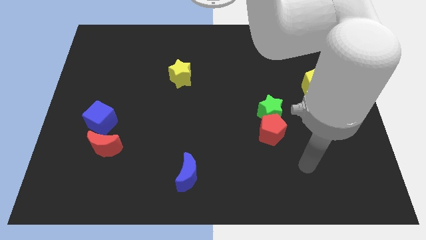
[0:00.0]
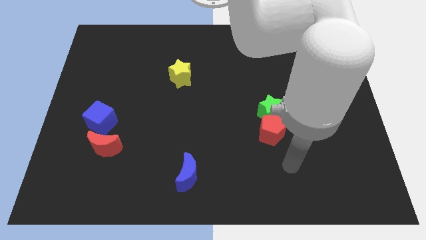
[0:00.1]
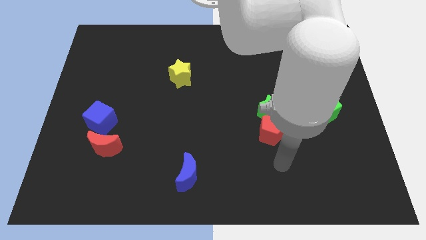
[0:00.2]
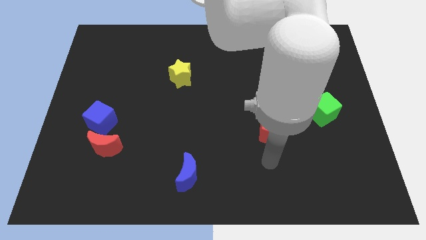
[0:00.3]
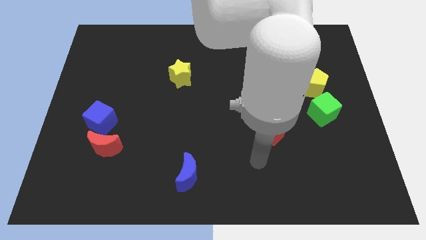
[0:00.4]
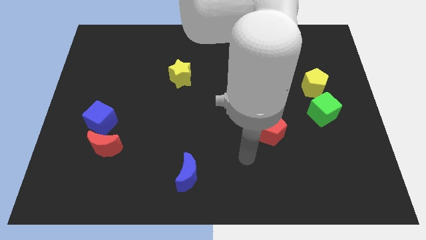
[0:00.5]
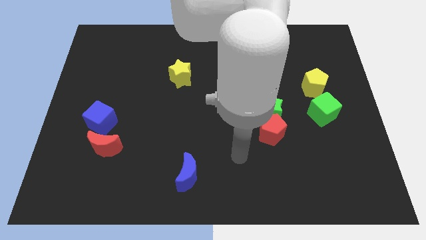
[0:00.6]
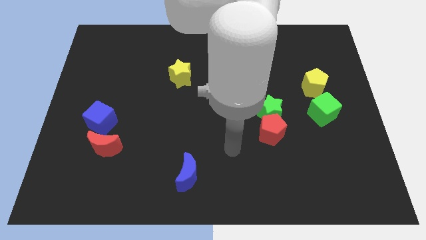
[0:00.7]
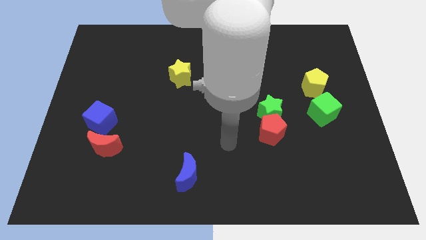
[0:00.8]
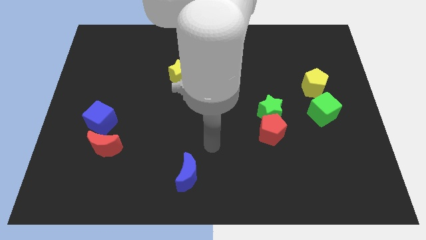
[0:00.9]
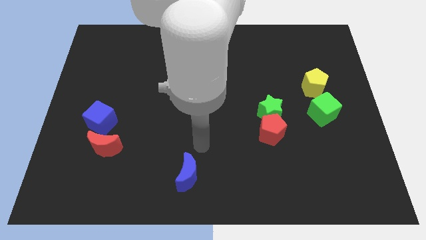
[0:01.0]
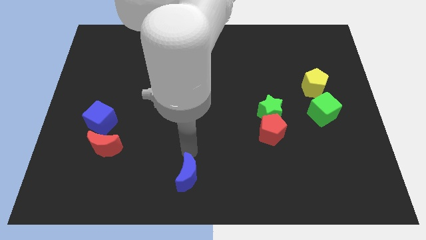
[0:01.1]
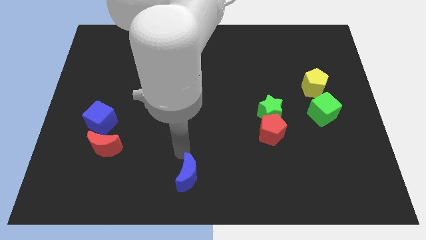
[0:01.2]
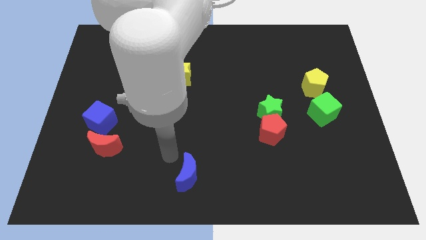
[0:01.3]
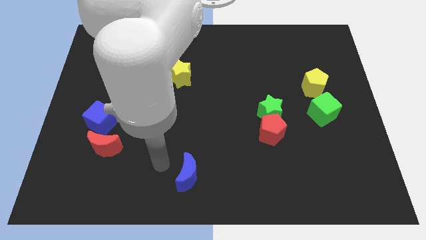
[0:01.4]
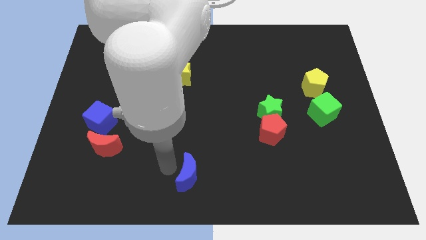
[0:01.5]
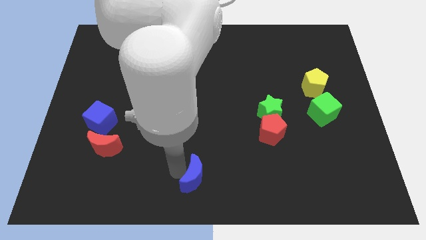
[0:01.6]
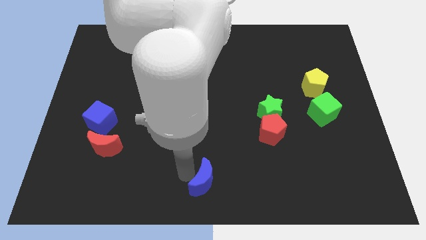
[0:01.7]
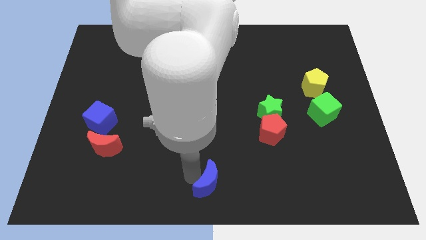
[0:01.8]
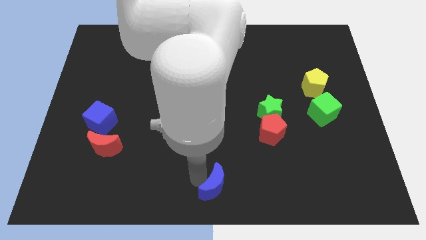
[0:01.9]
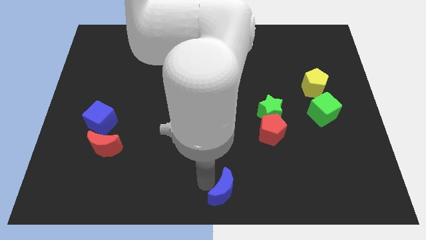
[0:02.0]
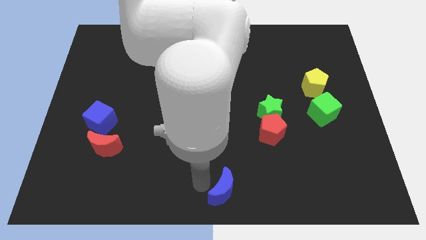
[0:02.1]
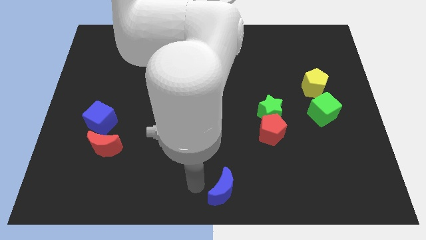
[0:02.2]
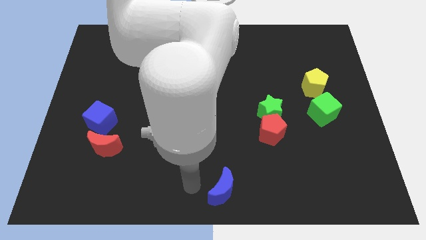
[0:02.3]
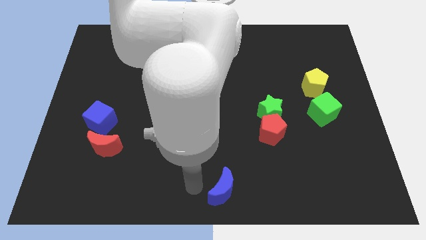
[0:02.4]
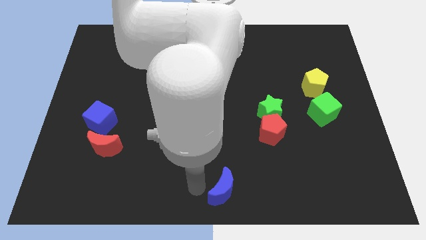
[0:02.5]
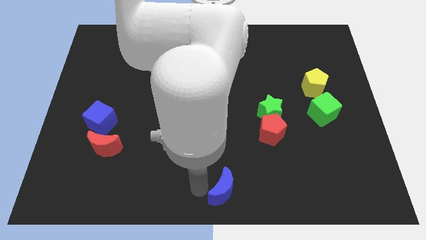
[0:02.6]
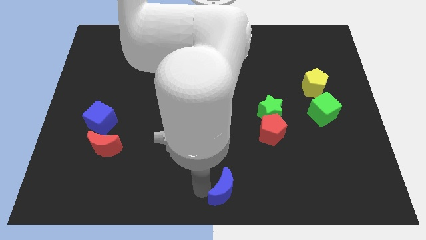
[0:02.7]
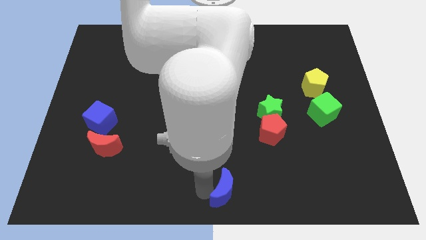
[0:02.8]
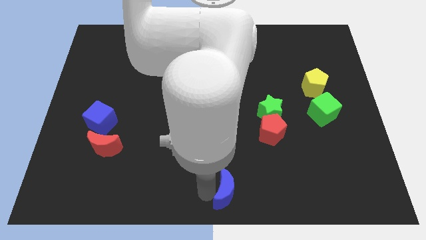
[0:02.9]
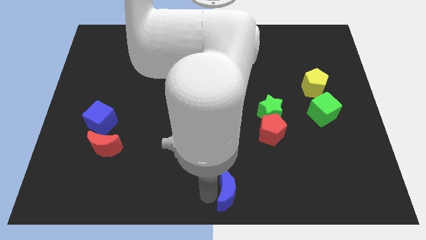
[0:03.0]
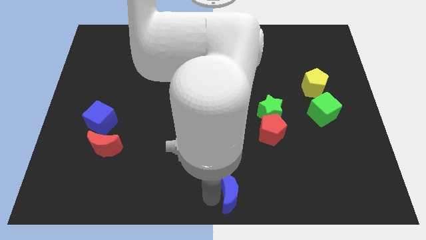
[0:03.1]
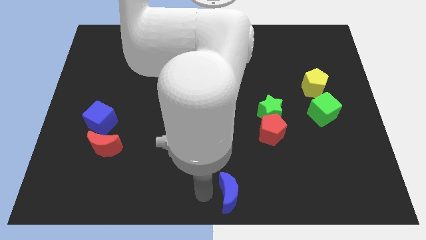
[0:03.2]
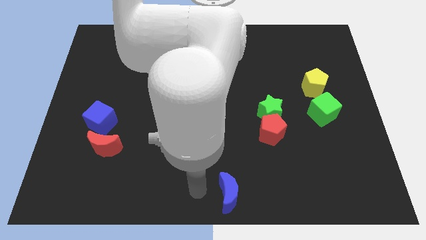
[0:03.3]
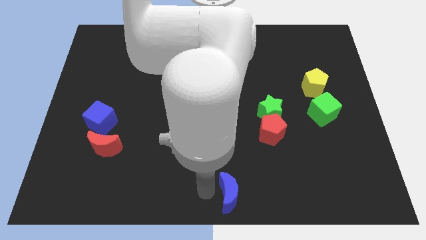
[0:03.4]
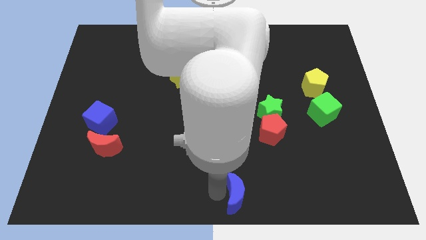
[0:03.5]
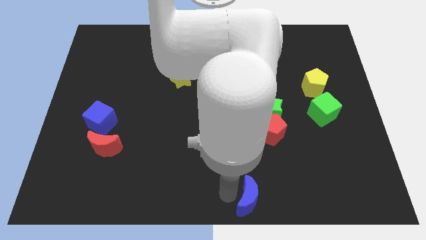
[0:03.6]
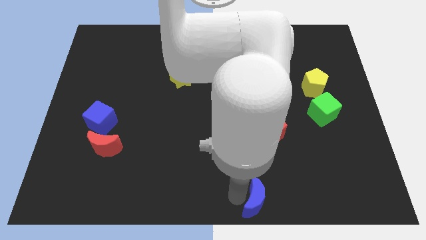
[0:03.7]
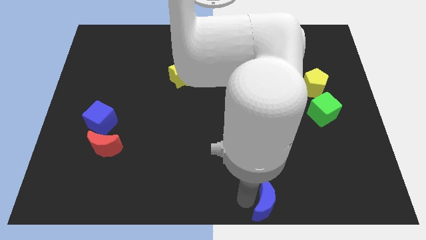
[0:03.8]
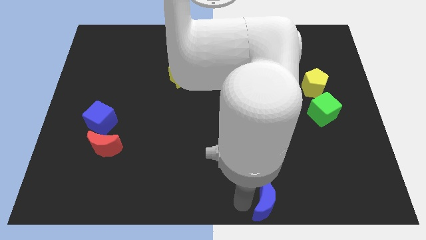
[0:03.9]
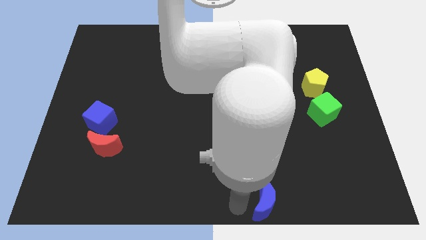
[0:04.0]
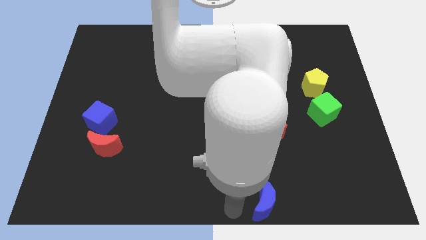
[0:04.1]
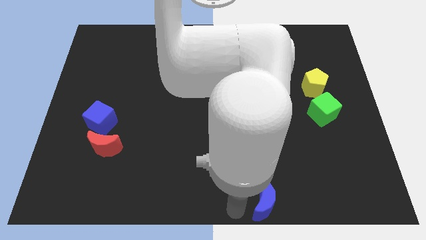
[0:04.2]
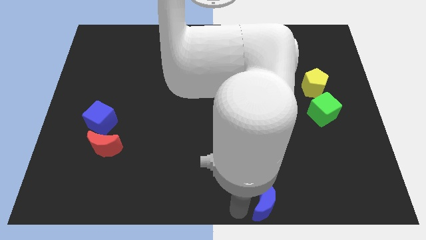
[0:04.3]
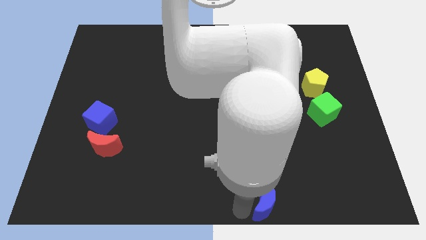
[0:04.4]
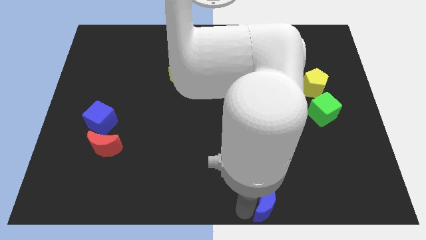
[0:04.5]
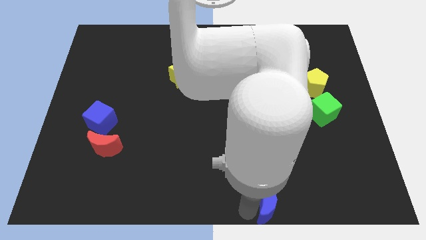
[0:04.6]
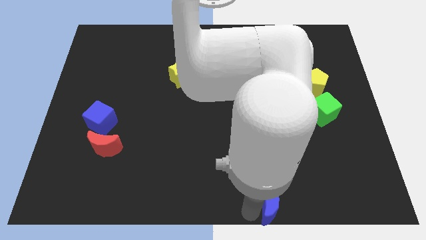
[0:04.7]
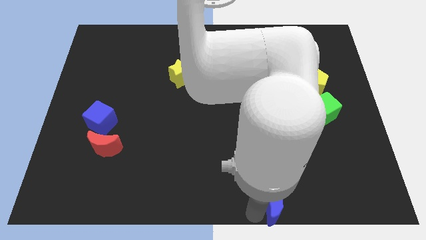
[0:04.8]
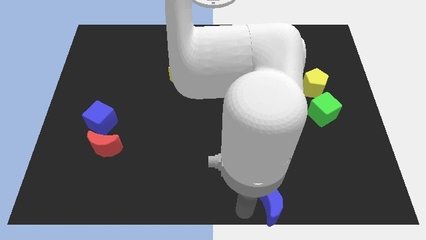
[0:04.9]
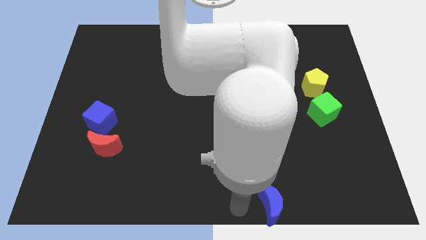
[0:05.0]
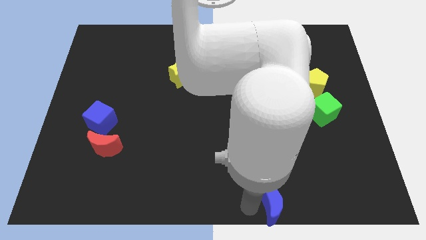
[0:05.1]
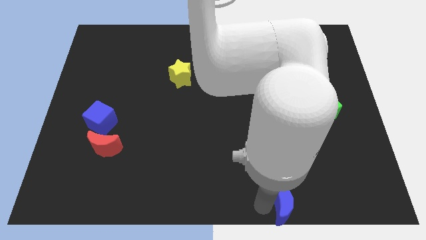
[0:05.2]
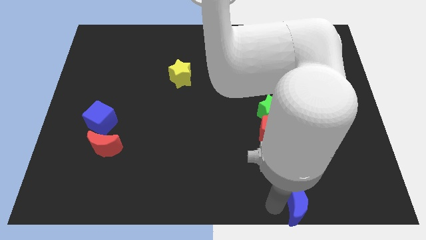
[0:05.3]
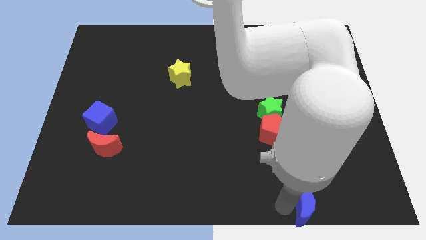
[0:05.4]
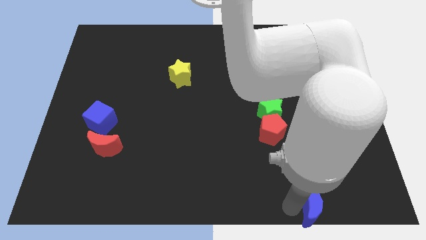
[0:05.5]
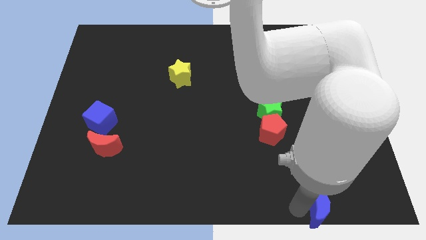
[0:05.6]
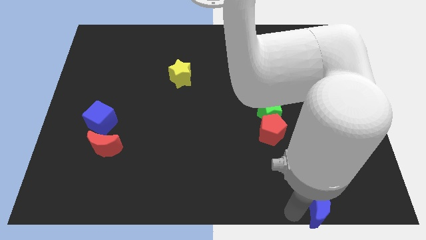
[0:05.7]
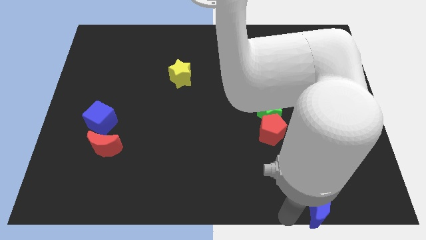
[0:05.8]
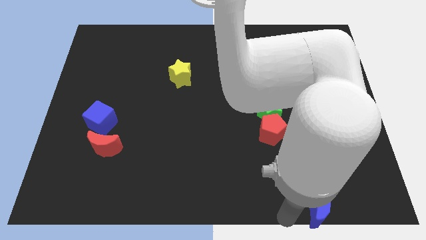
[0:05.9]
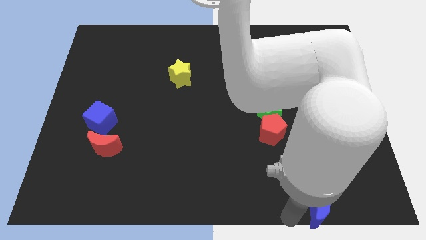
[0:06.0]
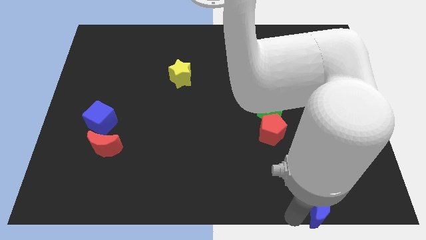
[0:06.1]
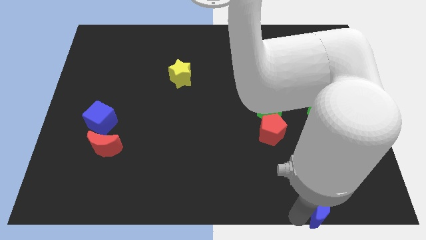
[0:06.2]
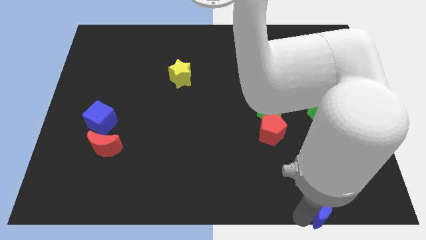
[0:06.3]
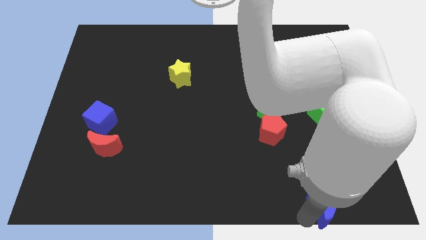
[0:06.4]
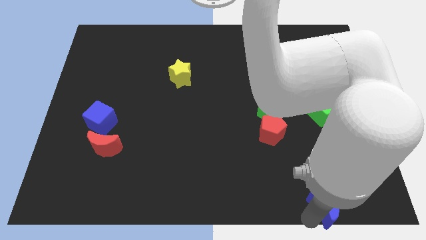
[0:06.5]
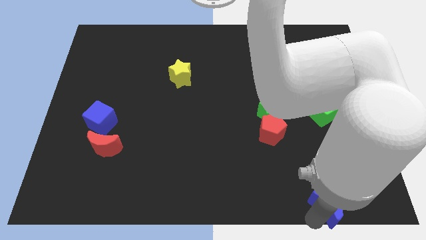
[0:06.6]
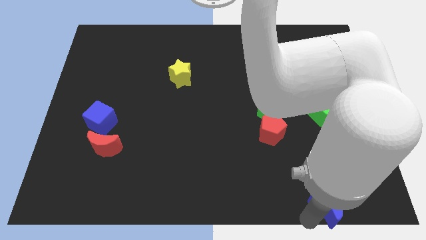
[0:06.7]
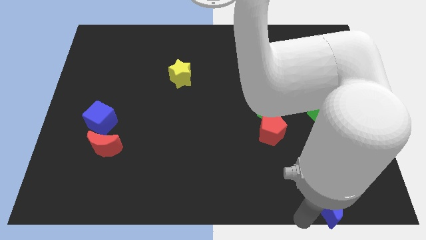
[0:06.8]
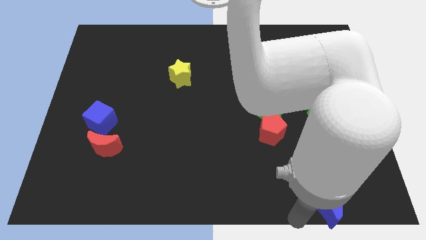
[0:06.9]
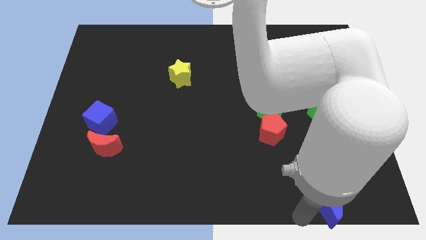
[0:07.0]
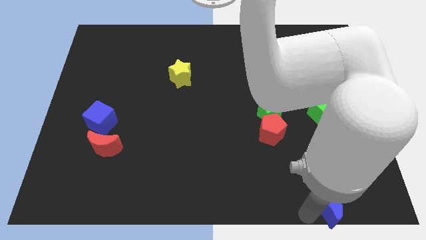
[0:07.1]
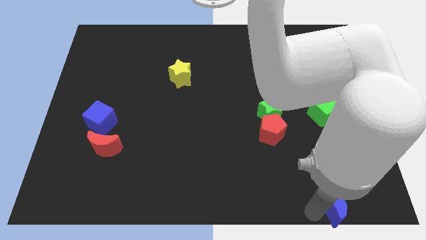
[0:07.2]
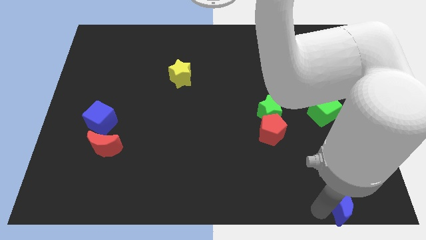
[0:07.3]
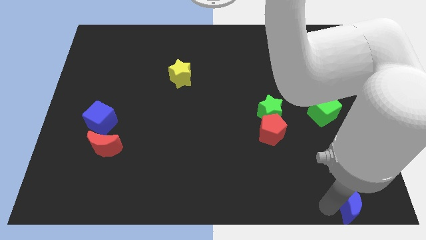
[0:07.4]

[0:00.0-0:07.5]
push the blue moon to the bottom right of the board
